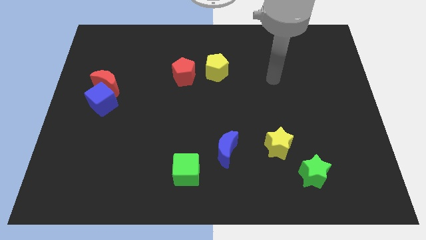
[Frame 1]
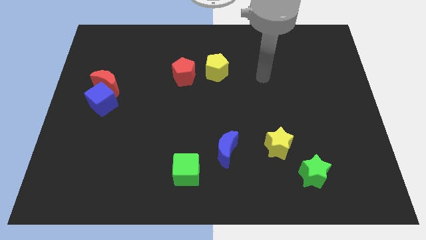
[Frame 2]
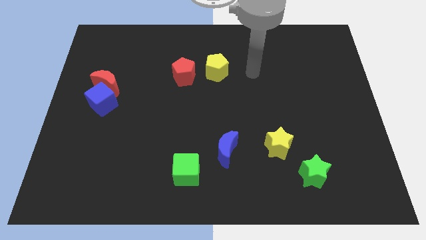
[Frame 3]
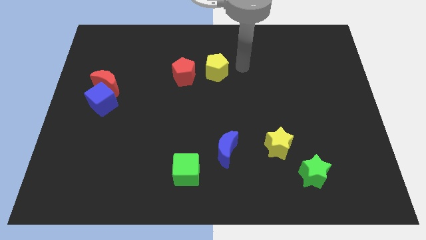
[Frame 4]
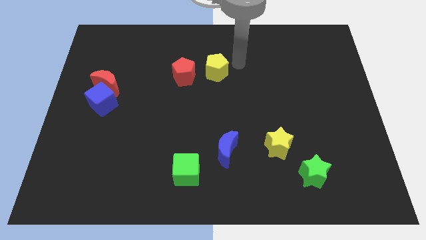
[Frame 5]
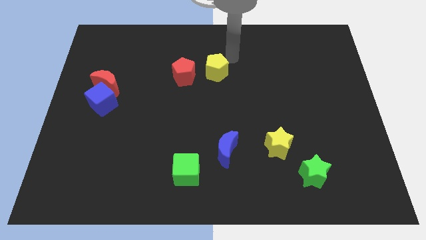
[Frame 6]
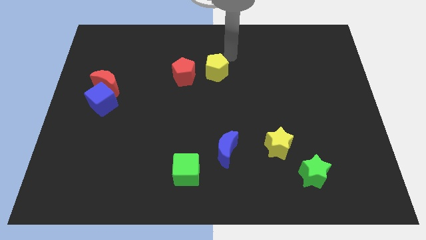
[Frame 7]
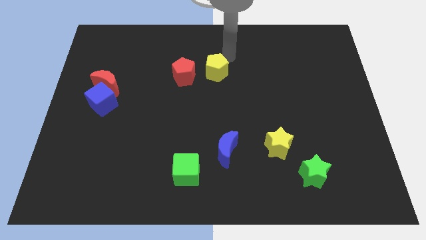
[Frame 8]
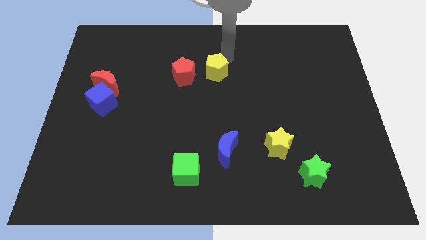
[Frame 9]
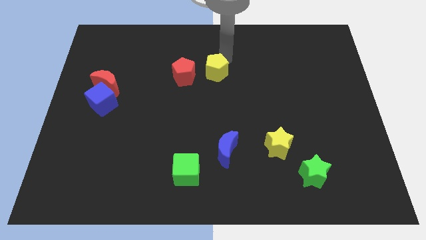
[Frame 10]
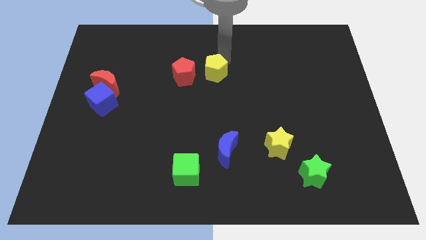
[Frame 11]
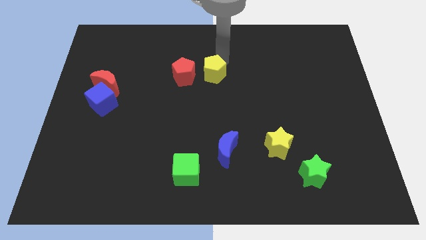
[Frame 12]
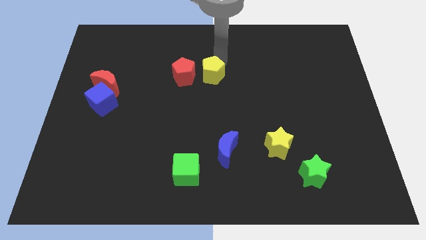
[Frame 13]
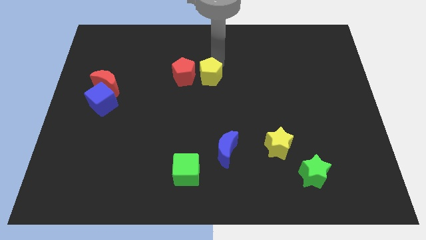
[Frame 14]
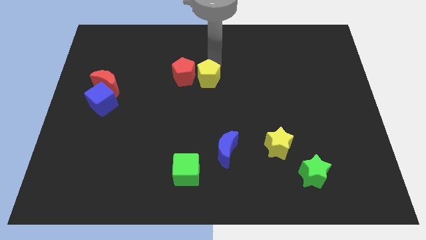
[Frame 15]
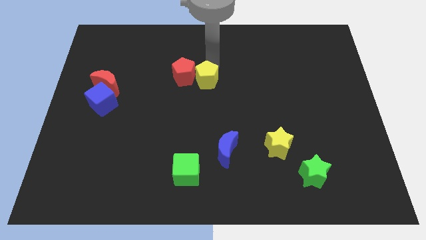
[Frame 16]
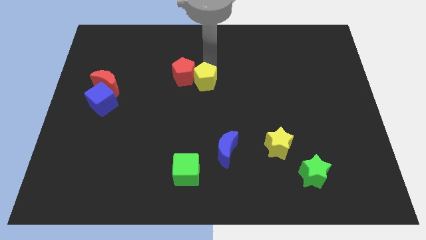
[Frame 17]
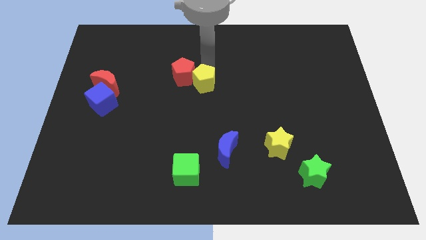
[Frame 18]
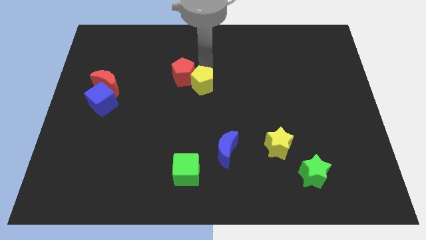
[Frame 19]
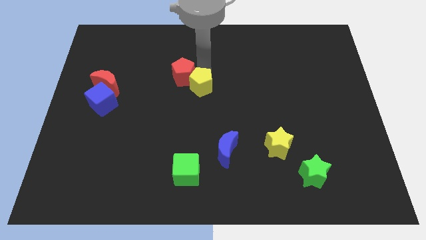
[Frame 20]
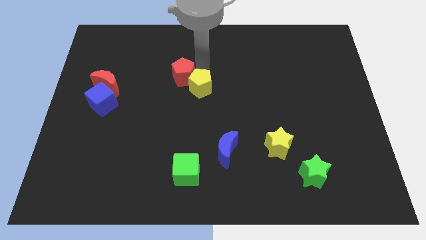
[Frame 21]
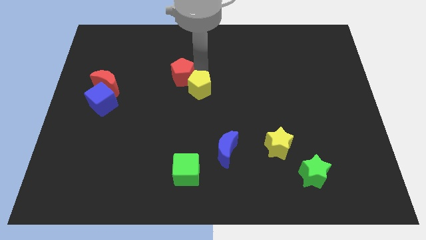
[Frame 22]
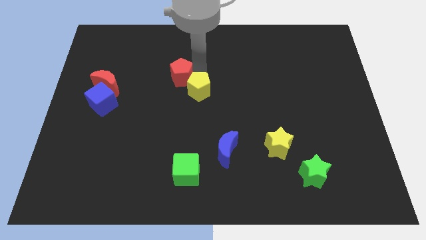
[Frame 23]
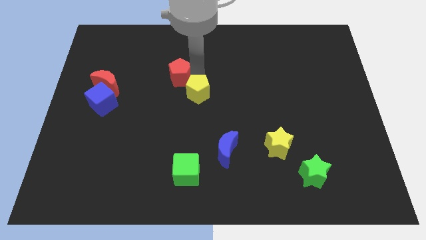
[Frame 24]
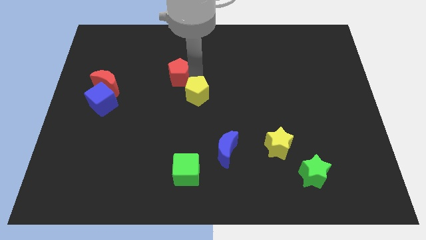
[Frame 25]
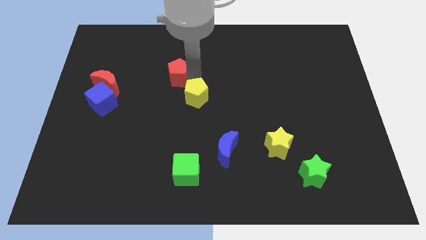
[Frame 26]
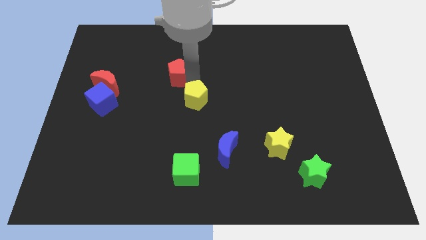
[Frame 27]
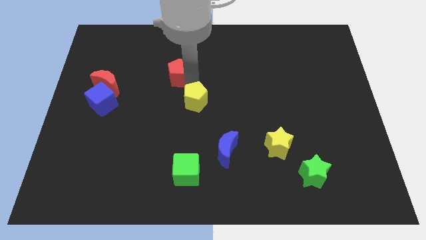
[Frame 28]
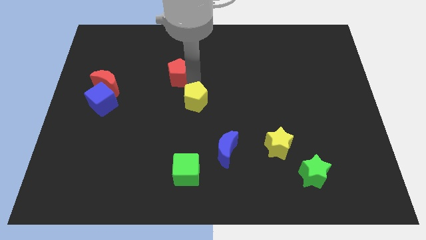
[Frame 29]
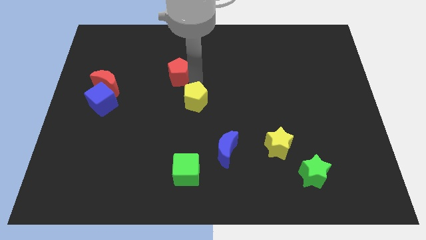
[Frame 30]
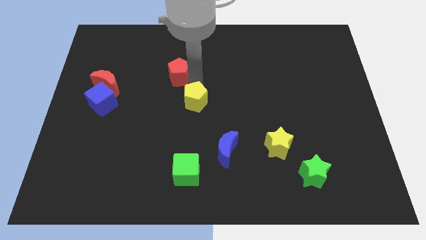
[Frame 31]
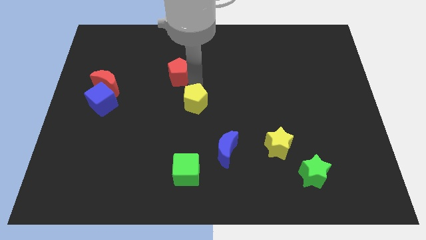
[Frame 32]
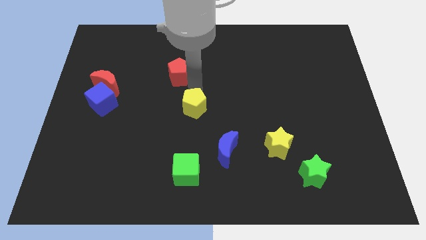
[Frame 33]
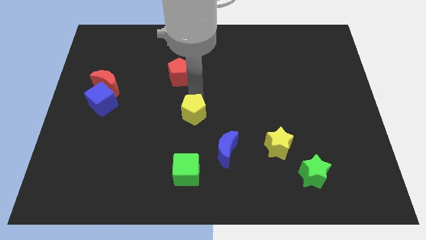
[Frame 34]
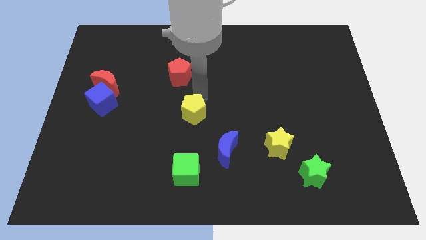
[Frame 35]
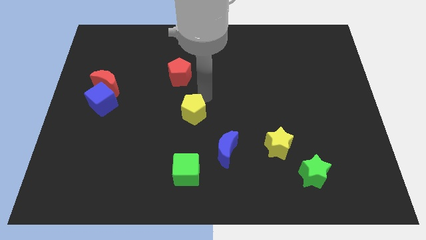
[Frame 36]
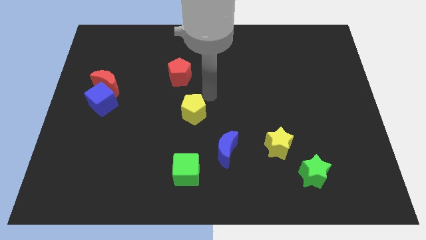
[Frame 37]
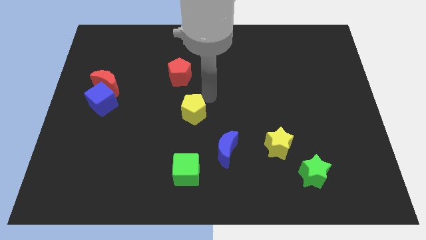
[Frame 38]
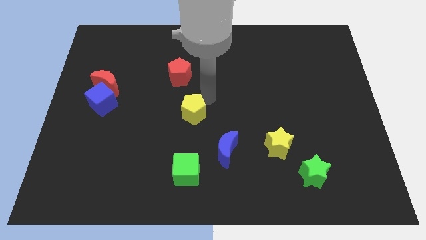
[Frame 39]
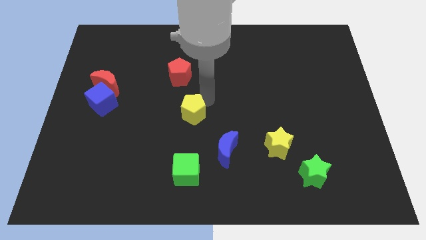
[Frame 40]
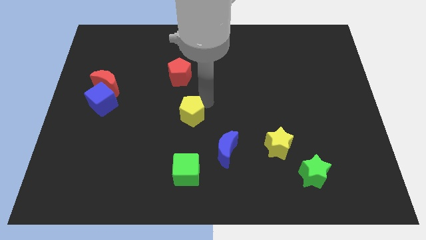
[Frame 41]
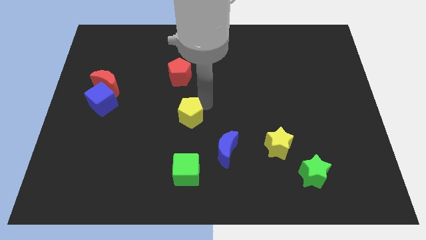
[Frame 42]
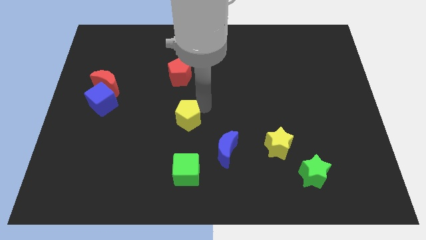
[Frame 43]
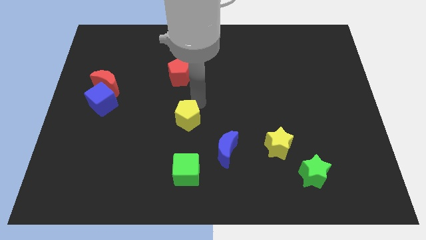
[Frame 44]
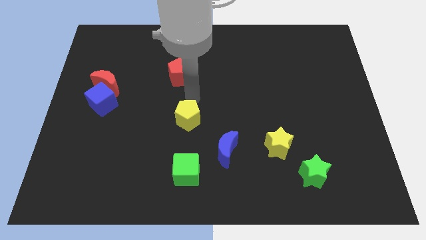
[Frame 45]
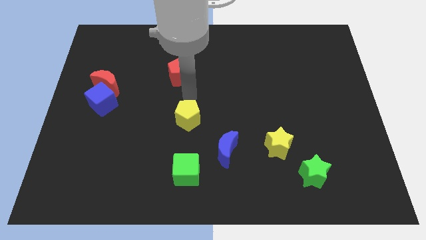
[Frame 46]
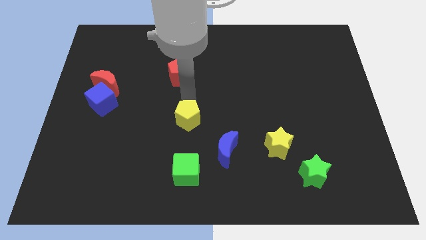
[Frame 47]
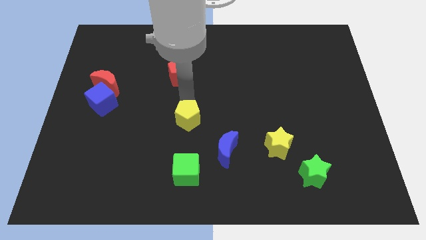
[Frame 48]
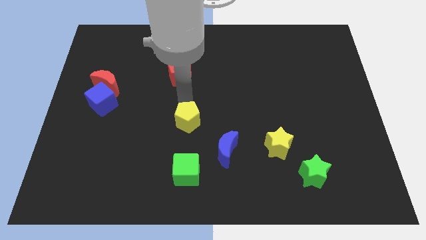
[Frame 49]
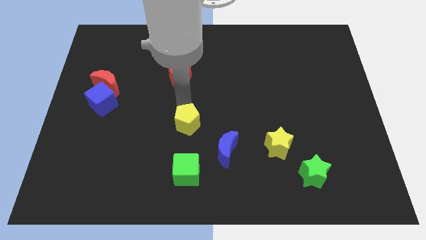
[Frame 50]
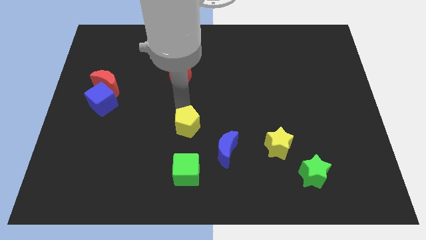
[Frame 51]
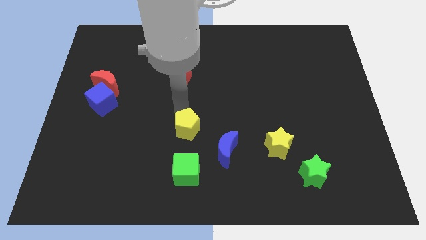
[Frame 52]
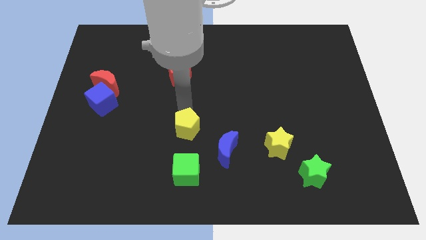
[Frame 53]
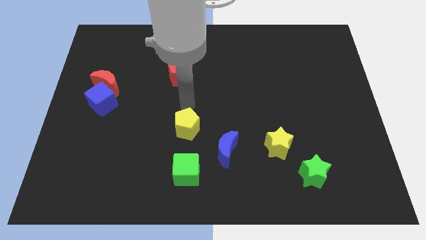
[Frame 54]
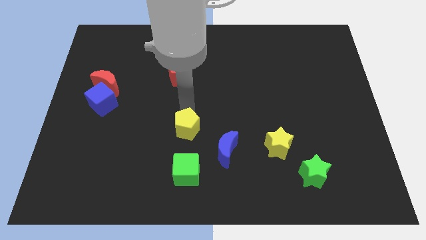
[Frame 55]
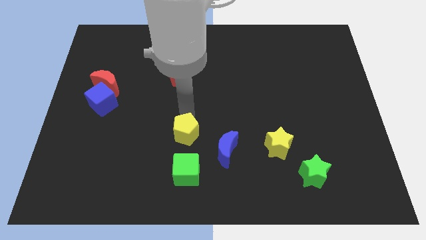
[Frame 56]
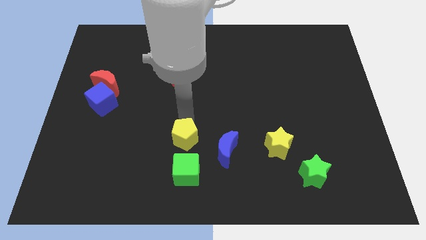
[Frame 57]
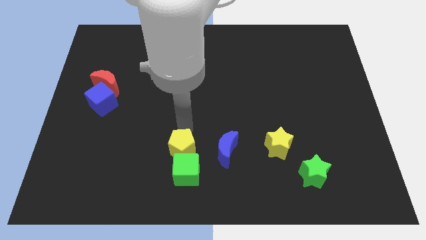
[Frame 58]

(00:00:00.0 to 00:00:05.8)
put the yellow pentagon towards the green cube

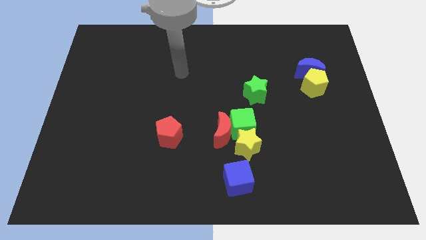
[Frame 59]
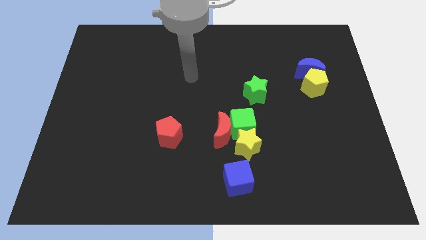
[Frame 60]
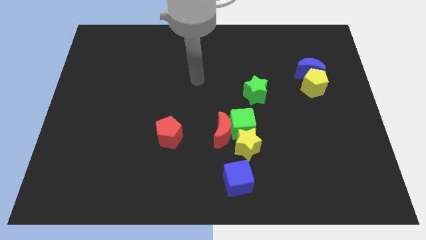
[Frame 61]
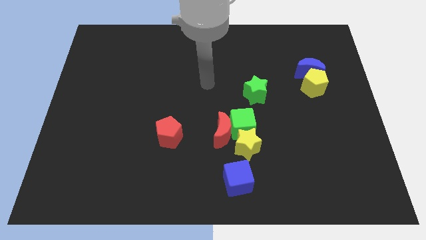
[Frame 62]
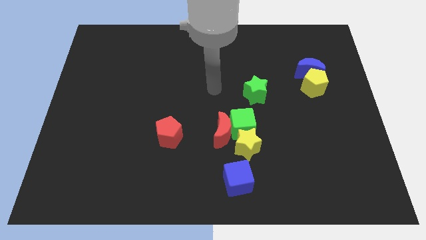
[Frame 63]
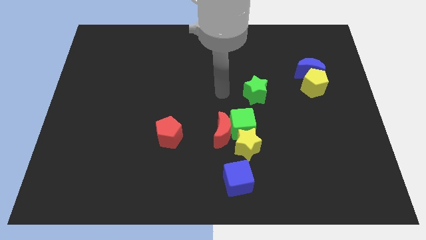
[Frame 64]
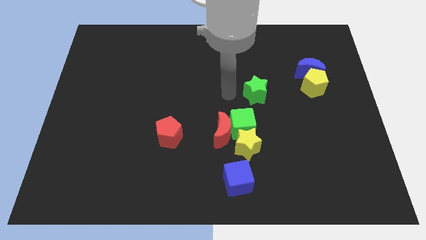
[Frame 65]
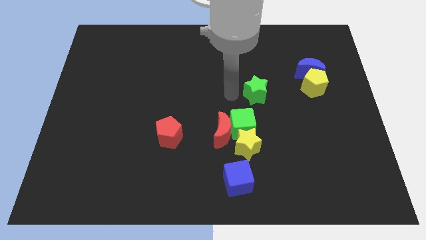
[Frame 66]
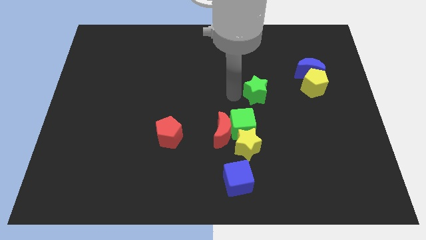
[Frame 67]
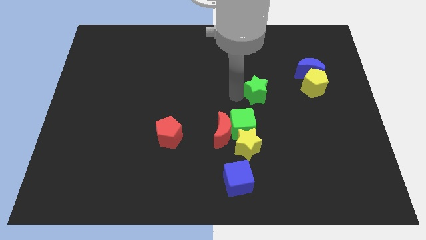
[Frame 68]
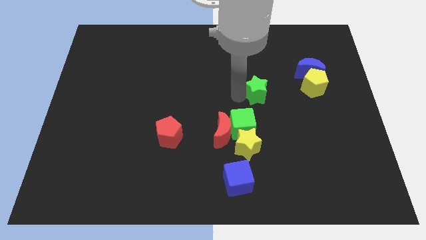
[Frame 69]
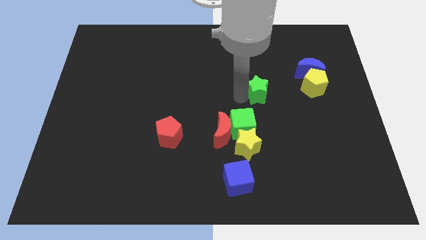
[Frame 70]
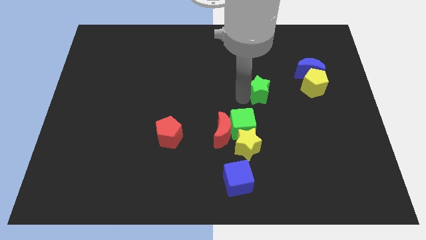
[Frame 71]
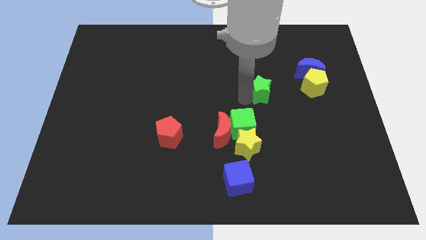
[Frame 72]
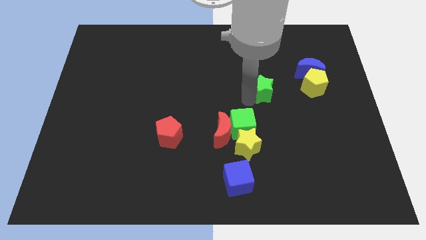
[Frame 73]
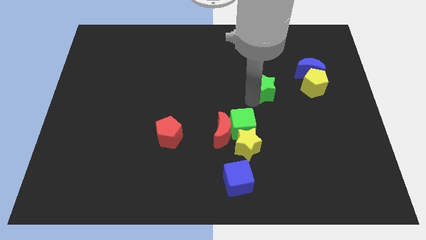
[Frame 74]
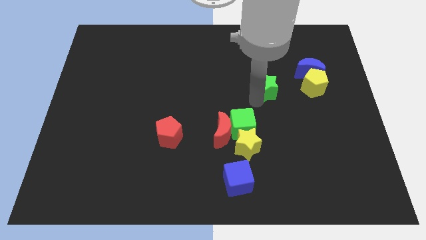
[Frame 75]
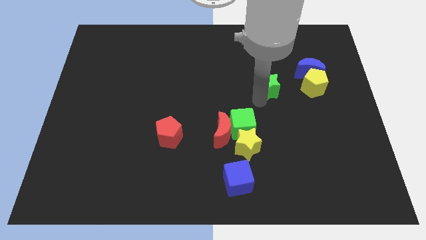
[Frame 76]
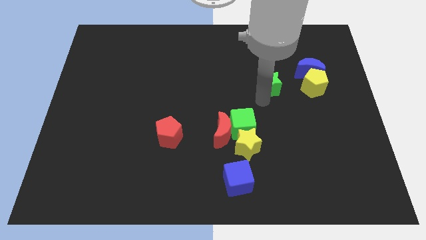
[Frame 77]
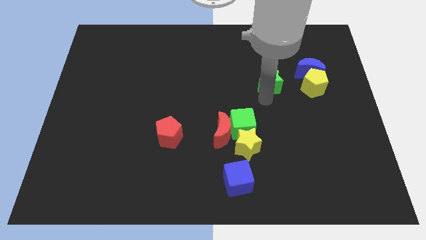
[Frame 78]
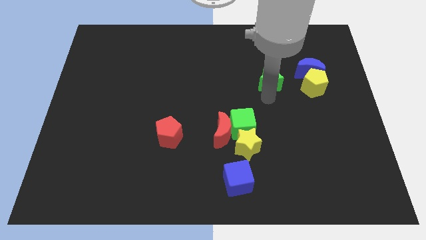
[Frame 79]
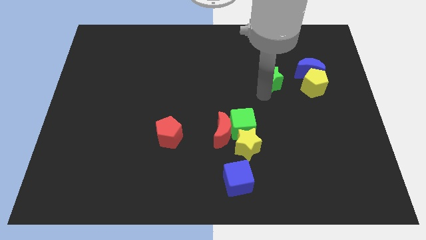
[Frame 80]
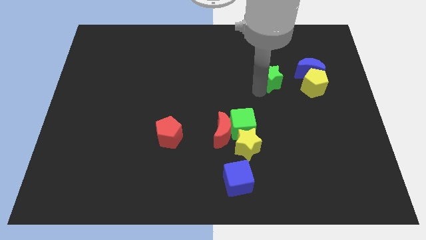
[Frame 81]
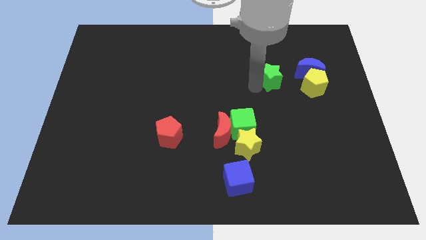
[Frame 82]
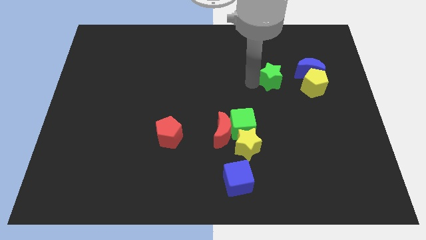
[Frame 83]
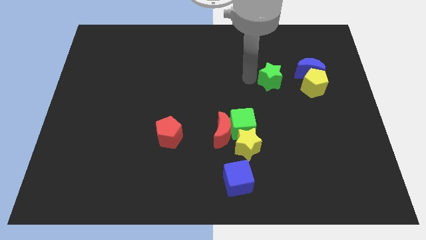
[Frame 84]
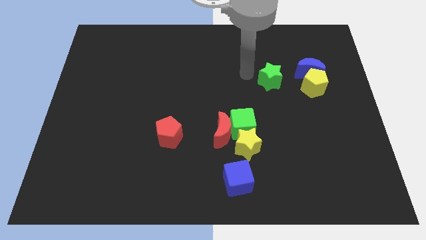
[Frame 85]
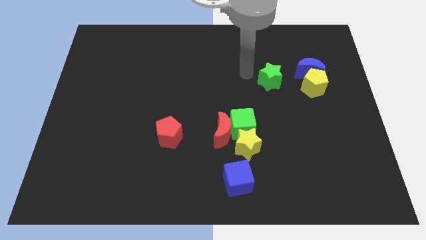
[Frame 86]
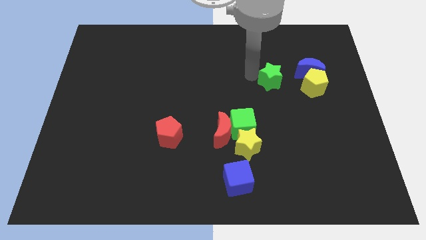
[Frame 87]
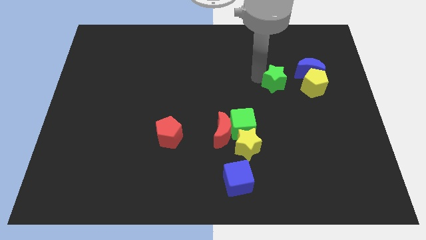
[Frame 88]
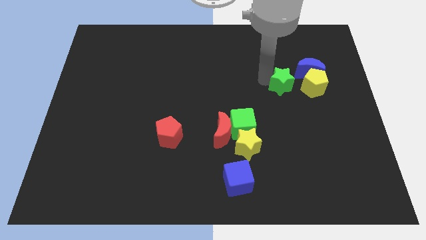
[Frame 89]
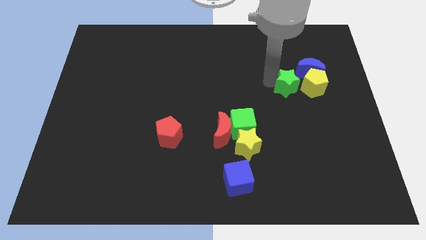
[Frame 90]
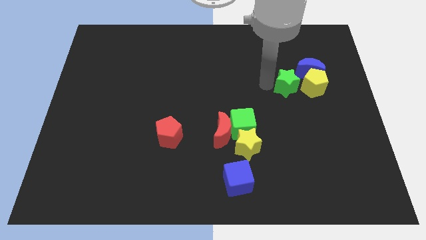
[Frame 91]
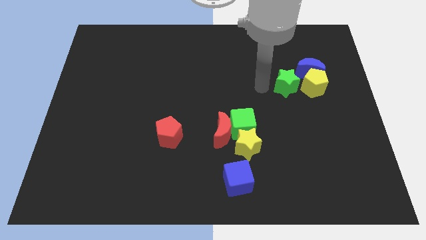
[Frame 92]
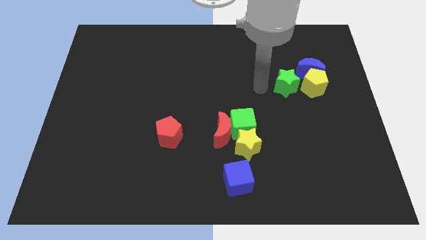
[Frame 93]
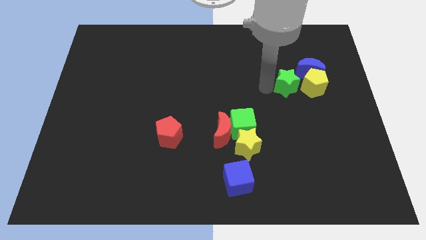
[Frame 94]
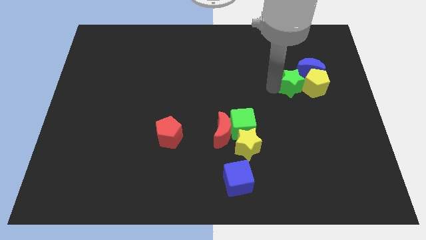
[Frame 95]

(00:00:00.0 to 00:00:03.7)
put the green star close to the yellow pentagon
